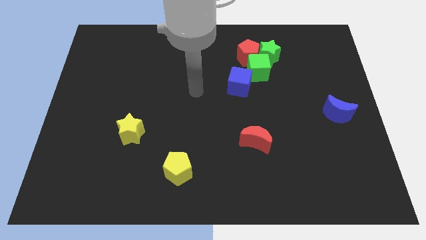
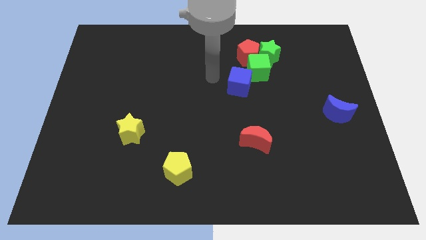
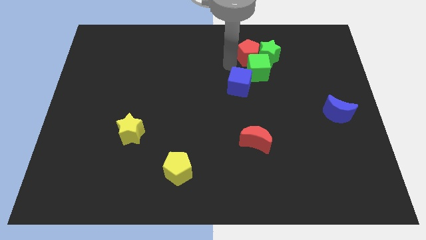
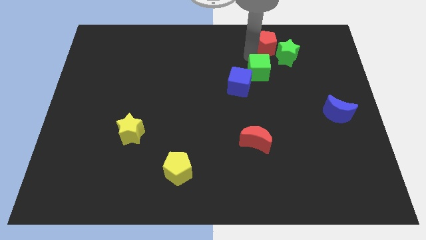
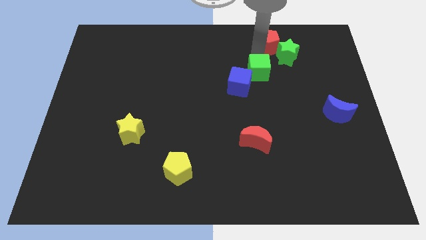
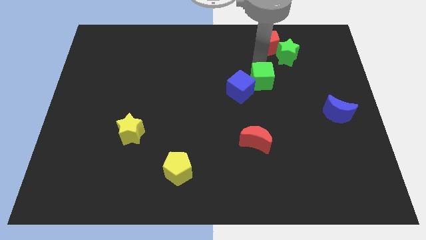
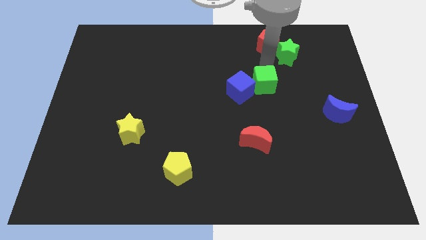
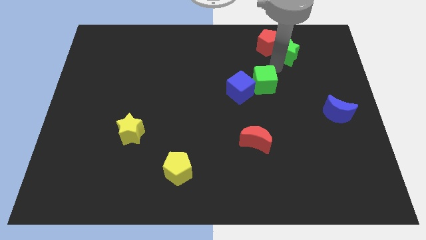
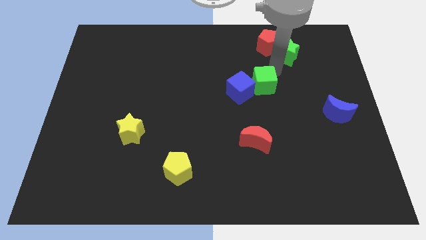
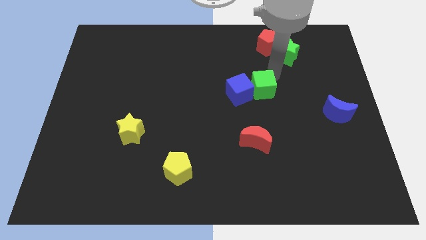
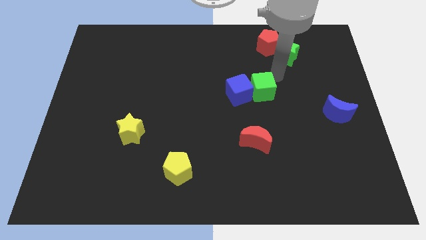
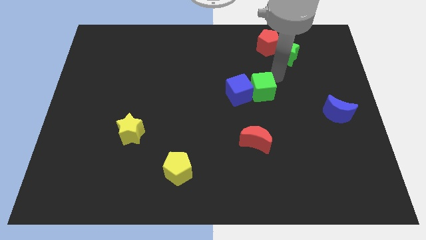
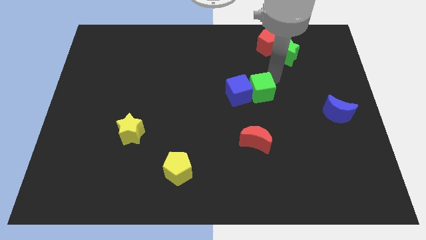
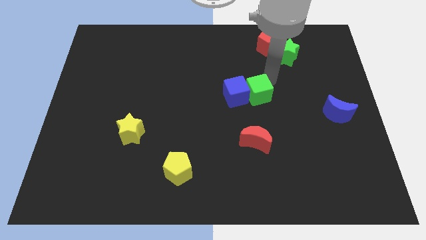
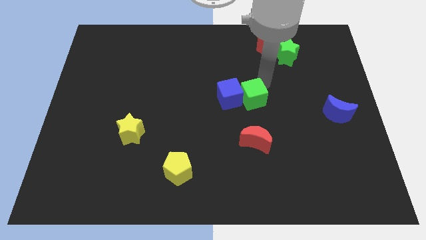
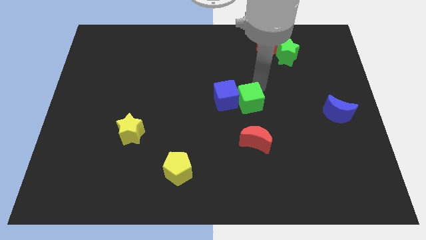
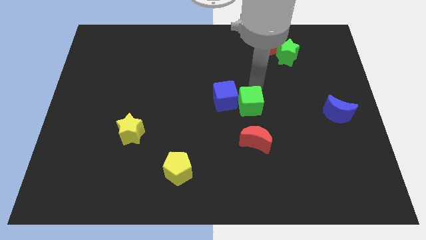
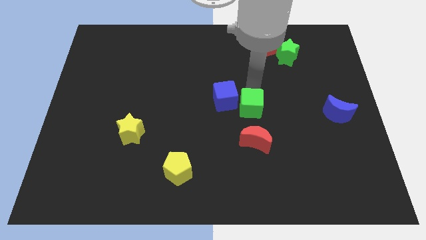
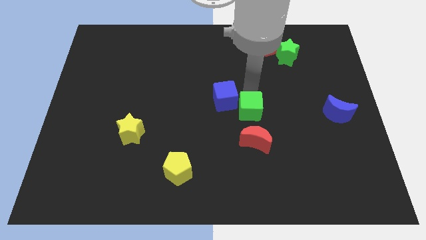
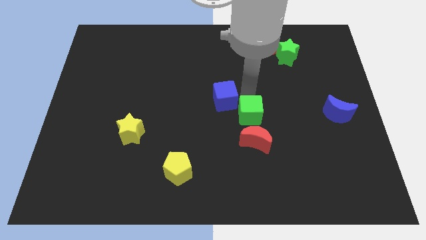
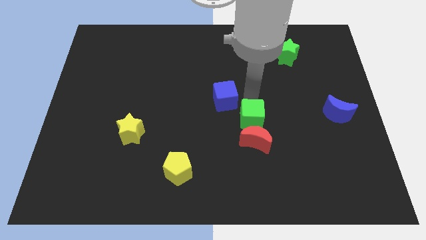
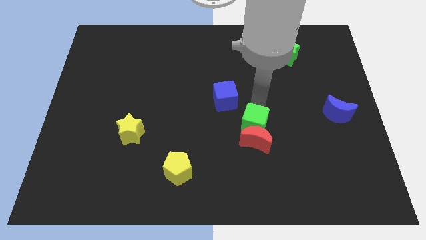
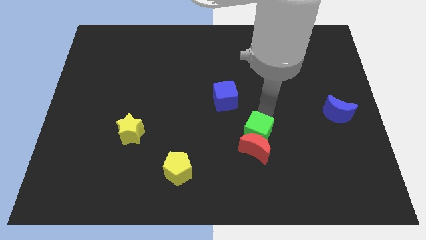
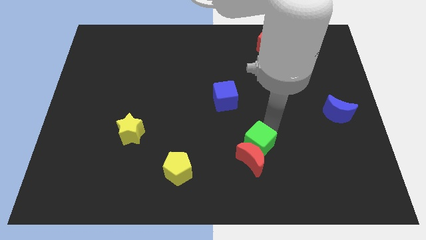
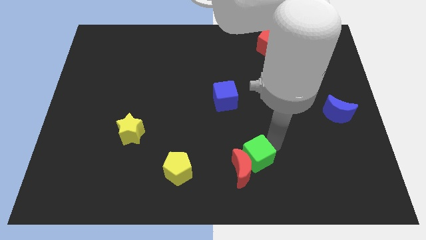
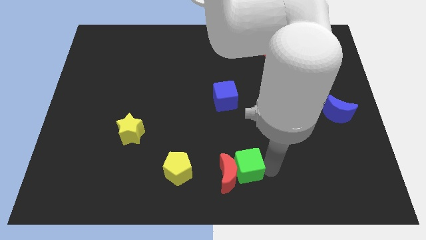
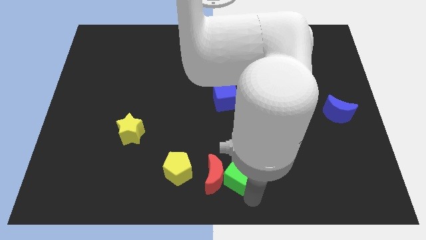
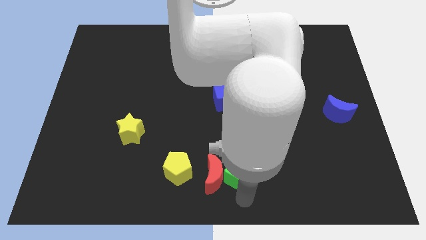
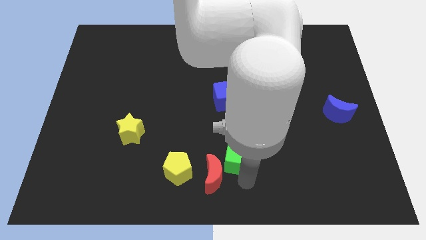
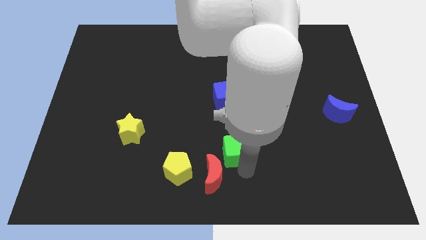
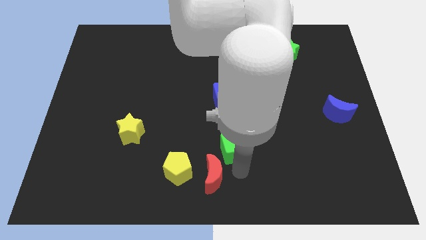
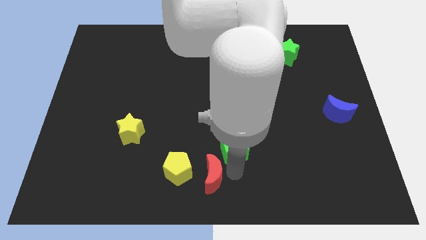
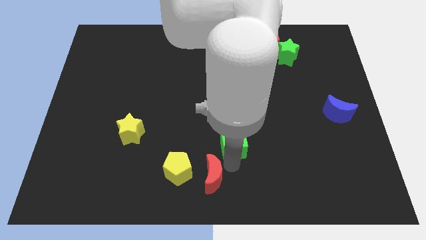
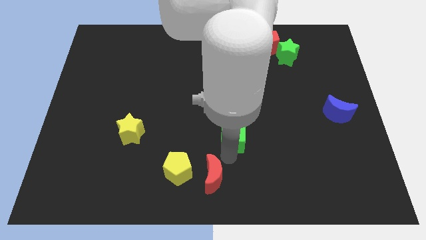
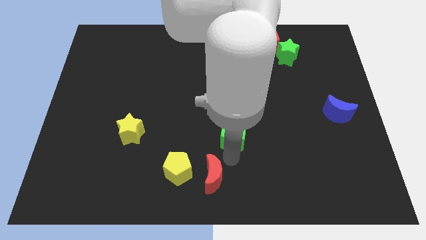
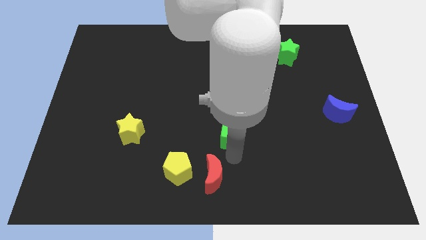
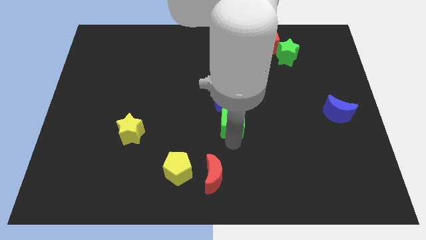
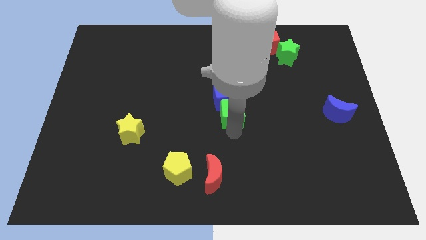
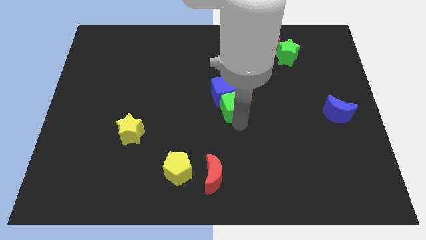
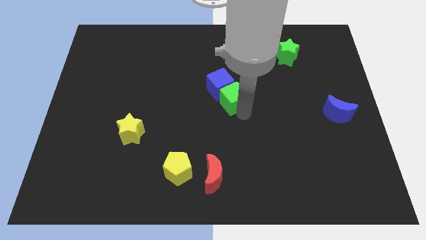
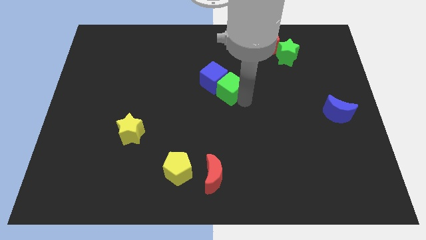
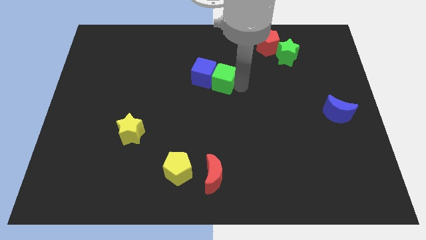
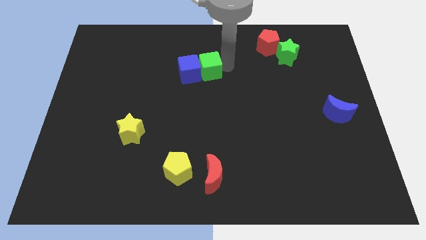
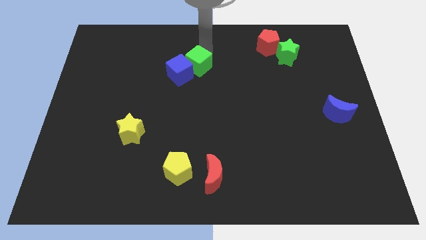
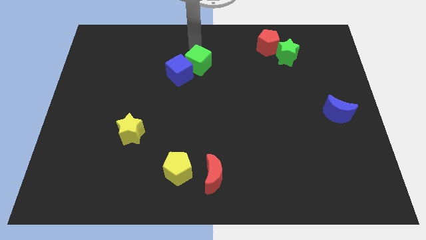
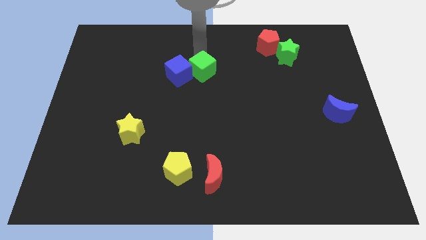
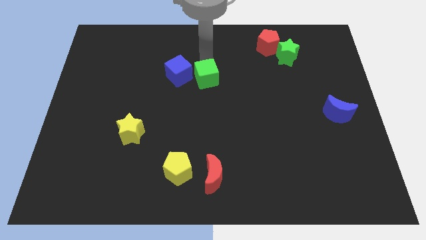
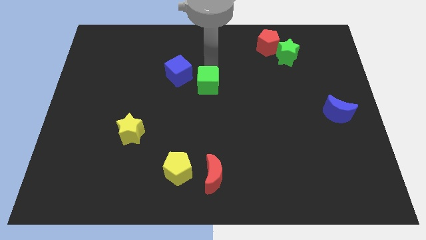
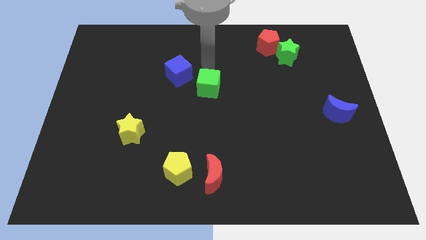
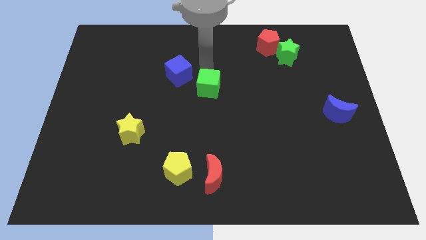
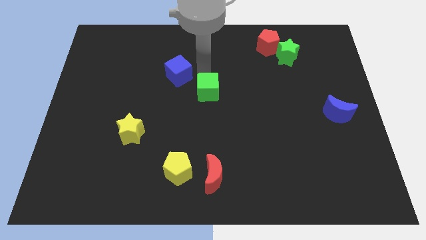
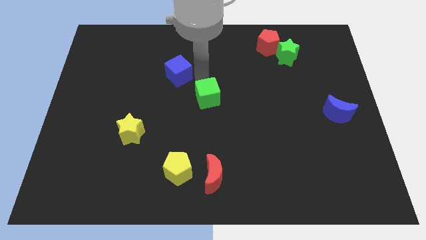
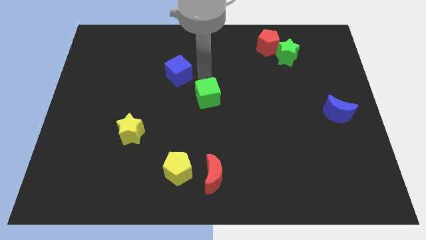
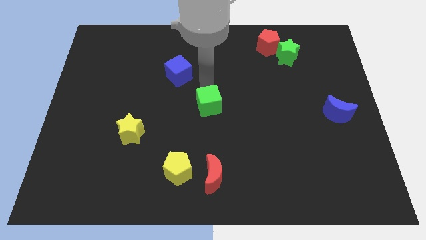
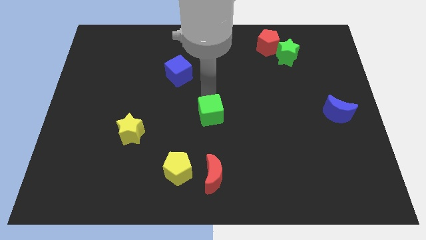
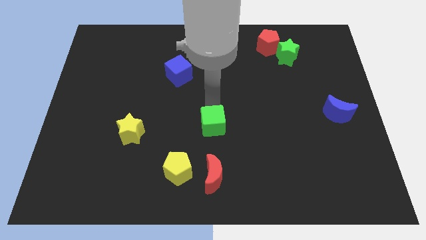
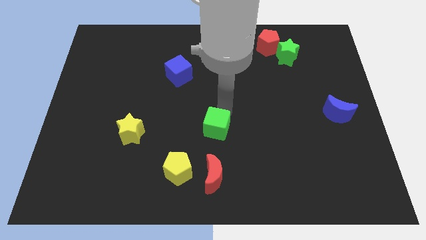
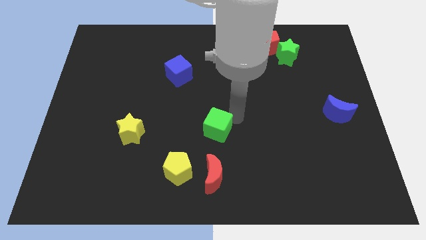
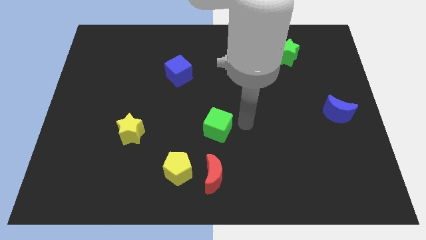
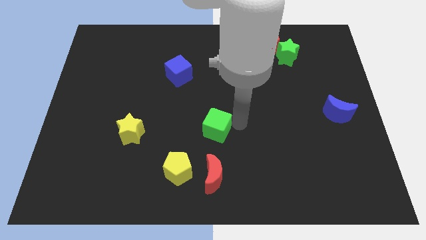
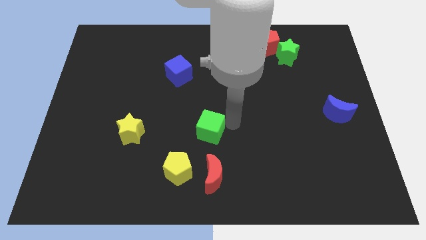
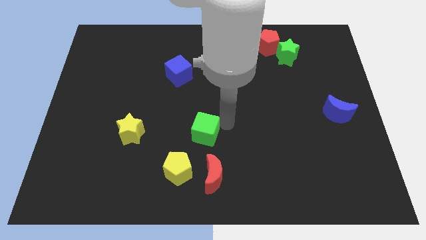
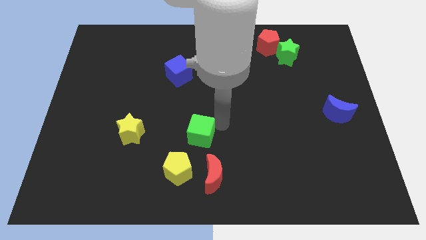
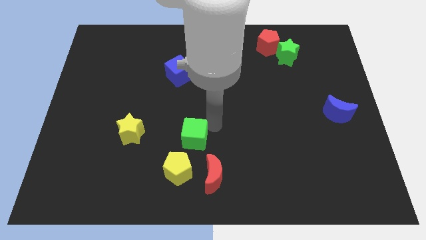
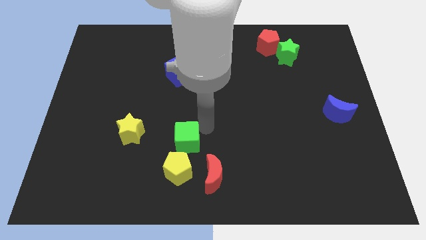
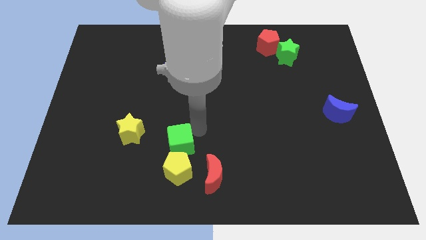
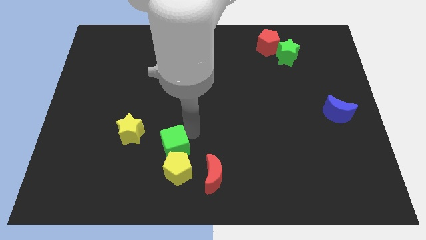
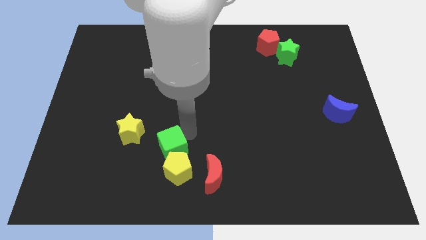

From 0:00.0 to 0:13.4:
move the green cube to the bottom right side of the yellow star
